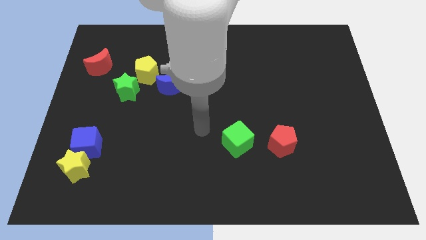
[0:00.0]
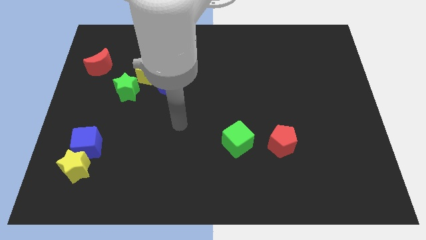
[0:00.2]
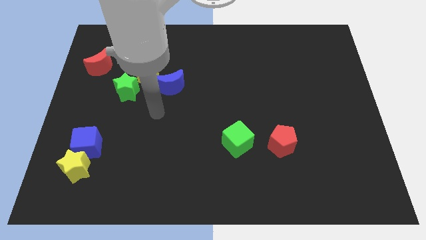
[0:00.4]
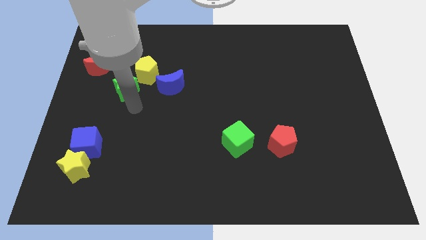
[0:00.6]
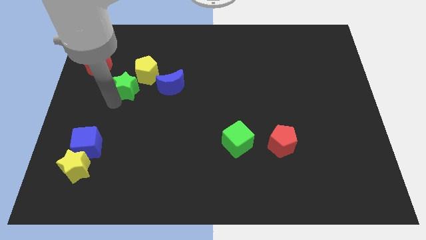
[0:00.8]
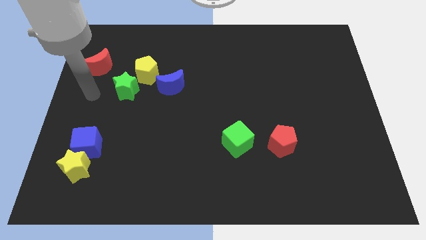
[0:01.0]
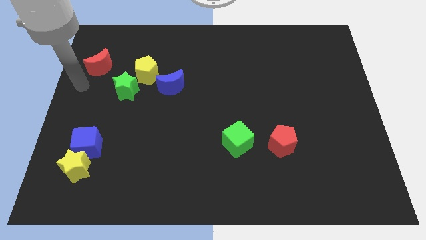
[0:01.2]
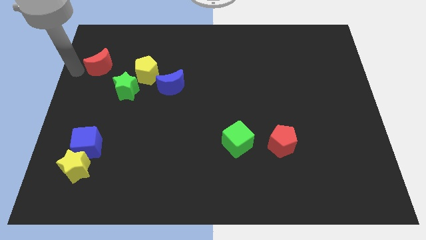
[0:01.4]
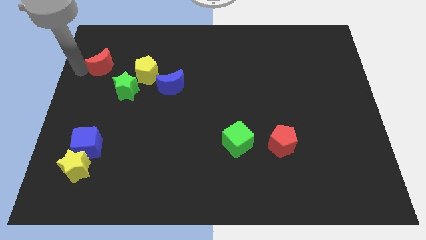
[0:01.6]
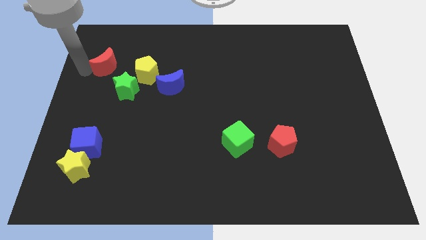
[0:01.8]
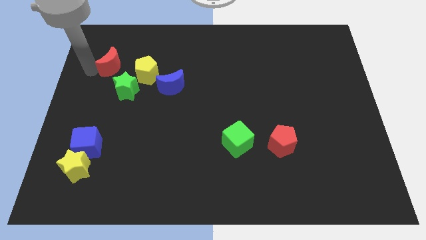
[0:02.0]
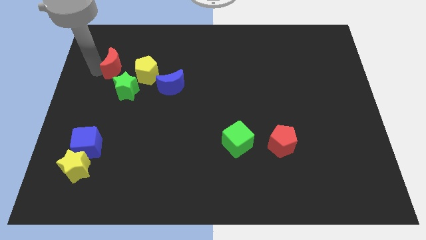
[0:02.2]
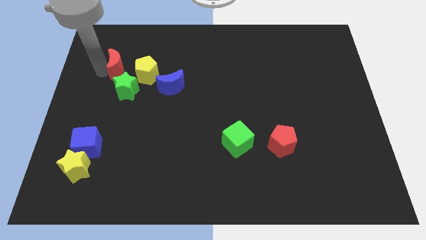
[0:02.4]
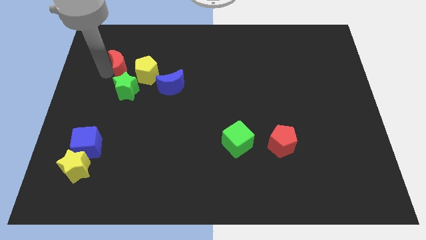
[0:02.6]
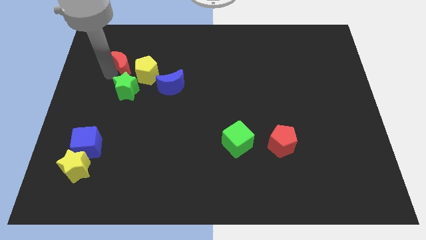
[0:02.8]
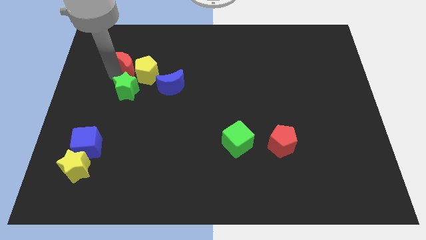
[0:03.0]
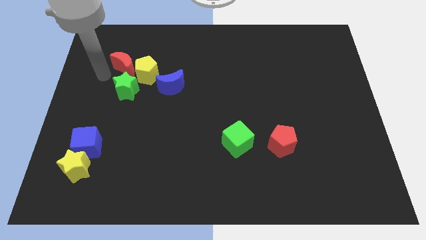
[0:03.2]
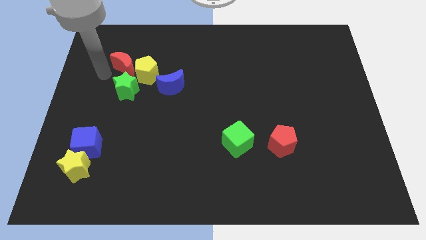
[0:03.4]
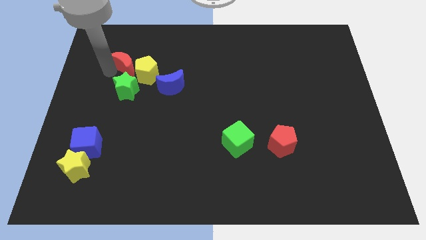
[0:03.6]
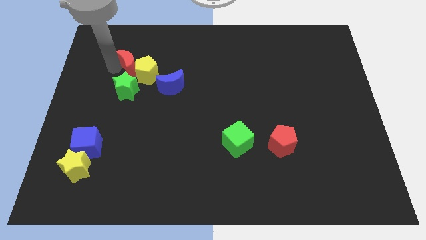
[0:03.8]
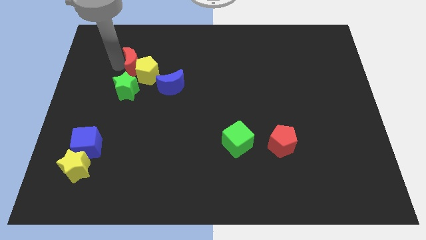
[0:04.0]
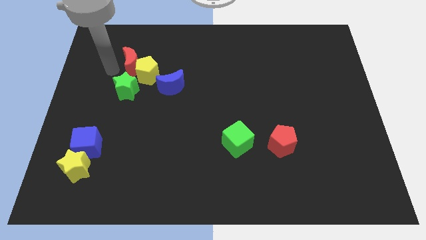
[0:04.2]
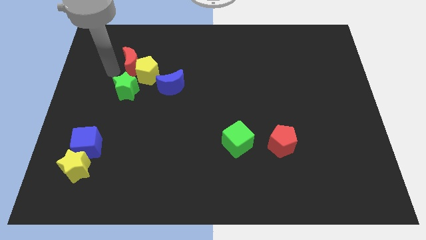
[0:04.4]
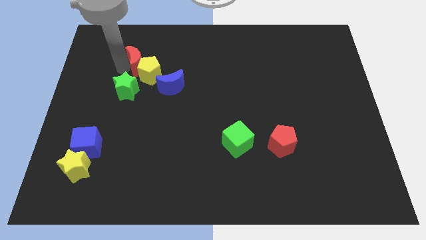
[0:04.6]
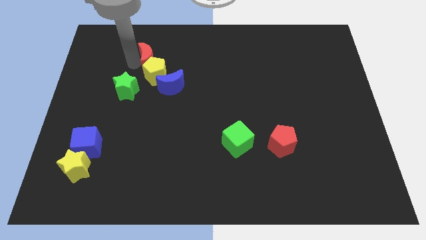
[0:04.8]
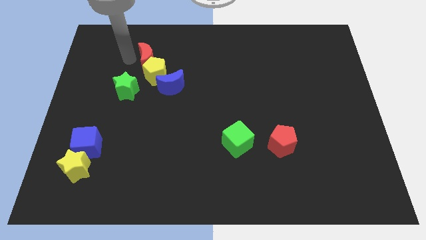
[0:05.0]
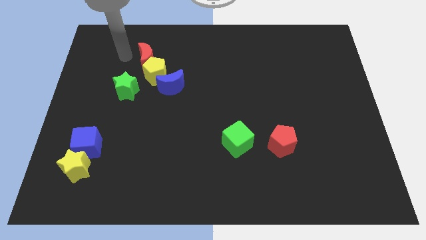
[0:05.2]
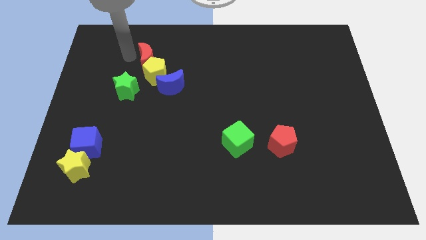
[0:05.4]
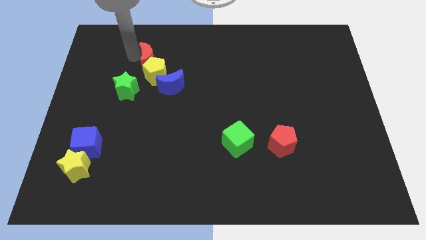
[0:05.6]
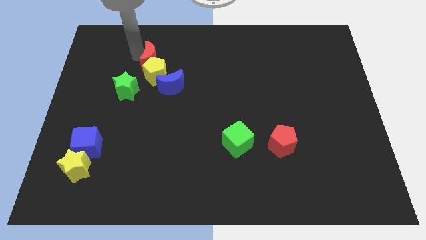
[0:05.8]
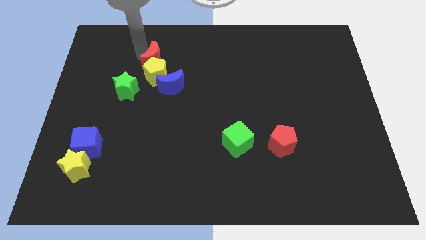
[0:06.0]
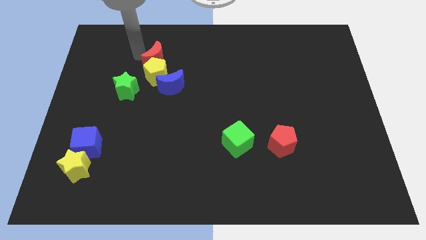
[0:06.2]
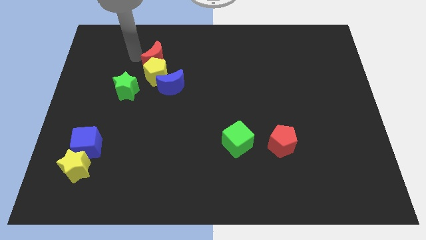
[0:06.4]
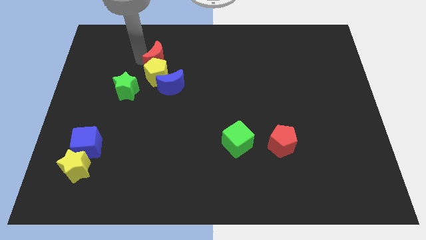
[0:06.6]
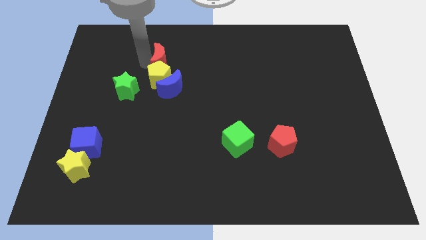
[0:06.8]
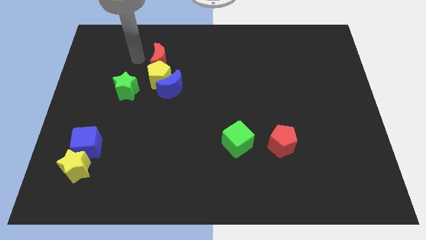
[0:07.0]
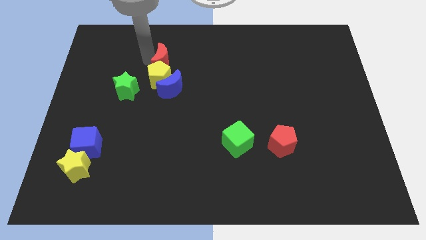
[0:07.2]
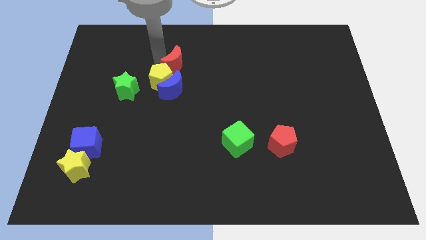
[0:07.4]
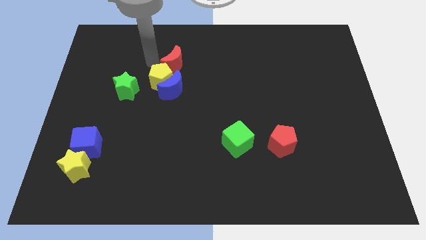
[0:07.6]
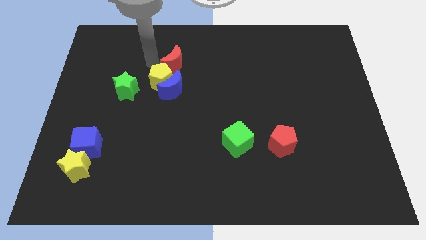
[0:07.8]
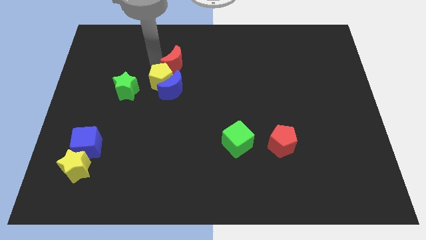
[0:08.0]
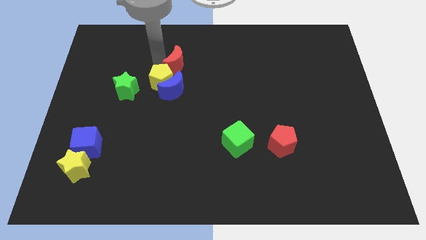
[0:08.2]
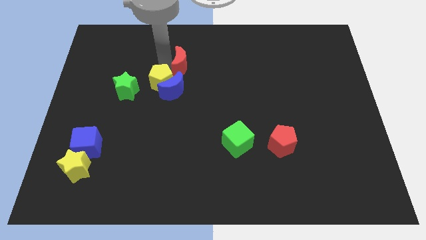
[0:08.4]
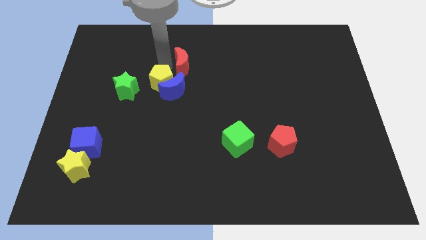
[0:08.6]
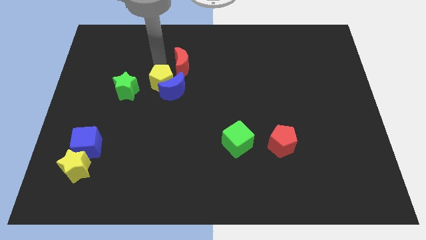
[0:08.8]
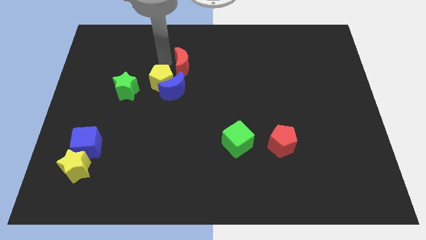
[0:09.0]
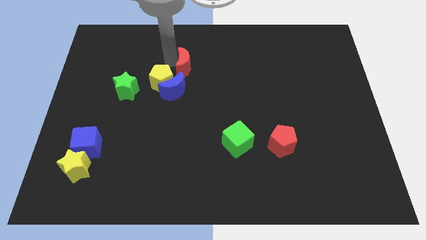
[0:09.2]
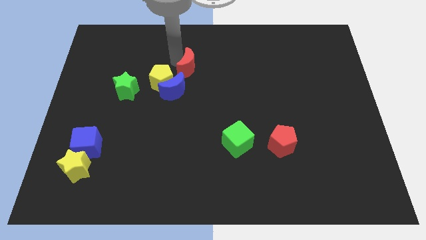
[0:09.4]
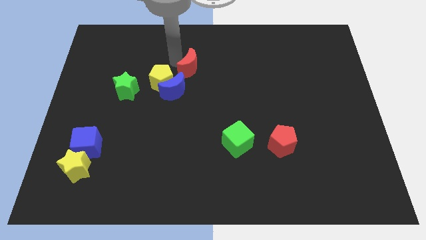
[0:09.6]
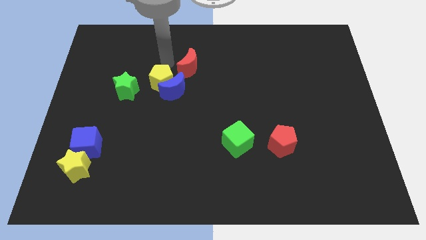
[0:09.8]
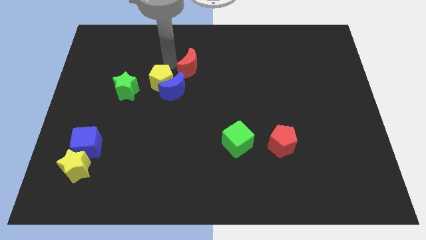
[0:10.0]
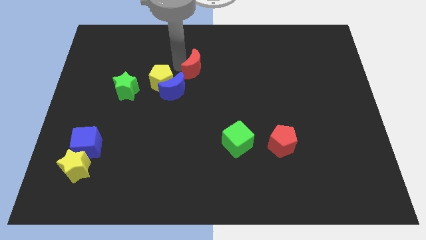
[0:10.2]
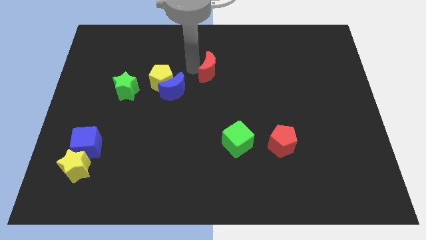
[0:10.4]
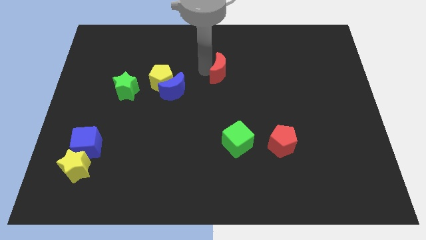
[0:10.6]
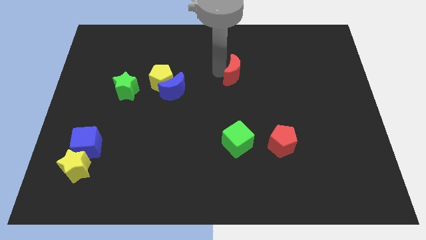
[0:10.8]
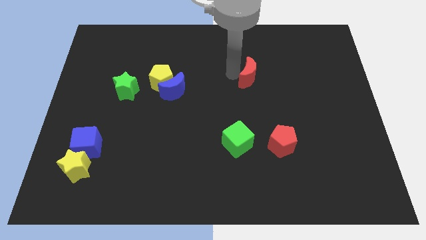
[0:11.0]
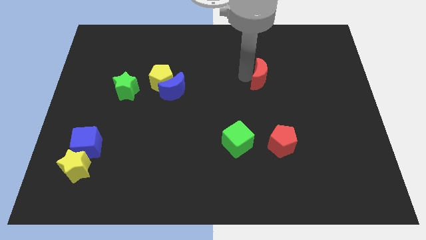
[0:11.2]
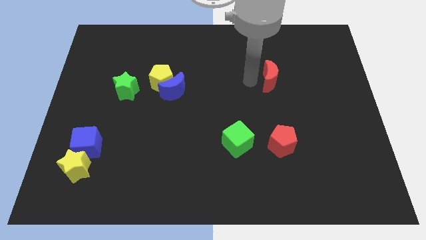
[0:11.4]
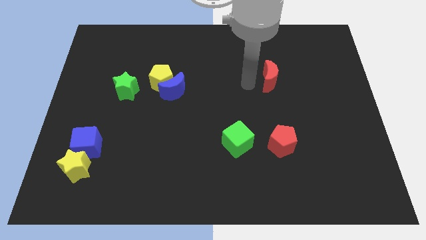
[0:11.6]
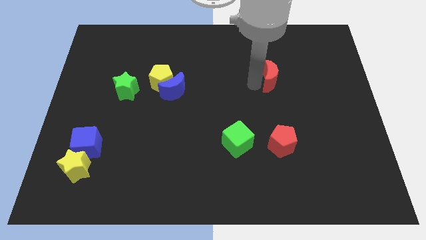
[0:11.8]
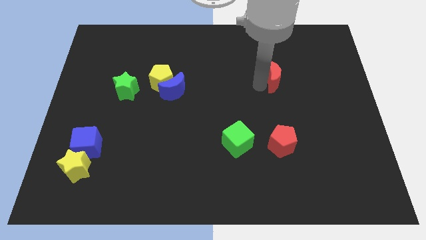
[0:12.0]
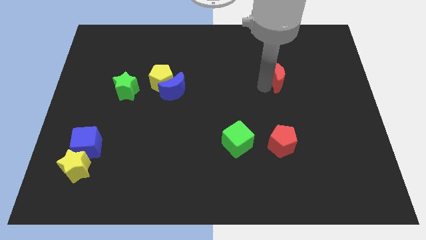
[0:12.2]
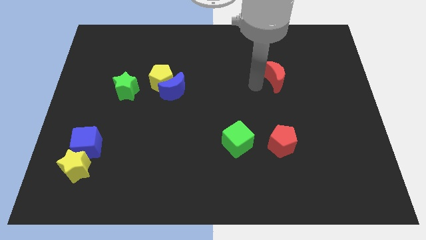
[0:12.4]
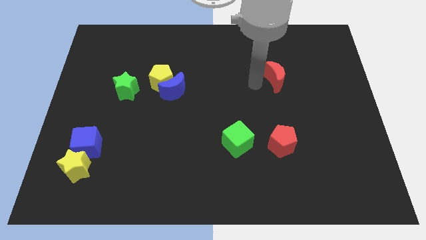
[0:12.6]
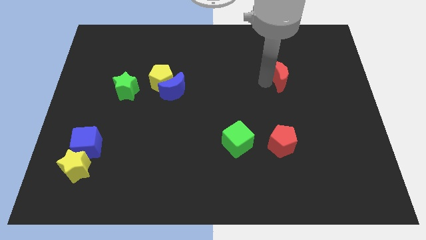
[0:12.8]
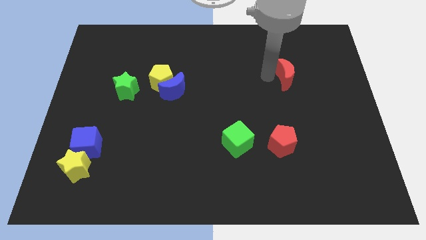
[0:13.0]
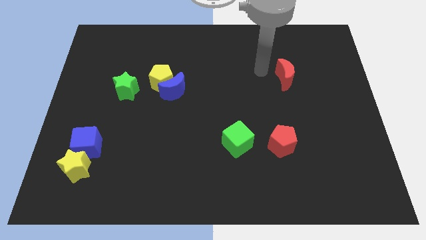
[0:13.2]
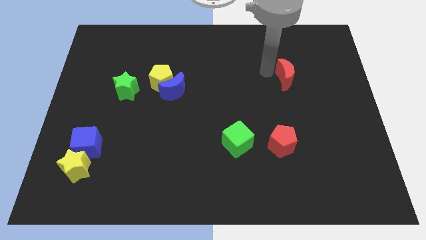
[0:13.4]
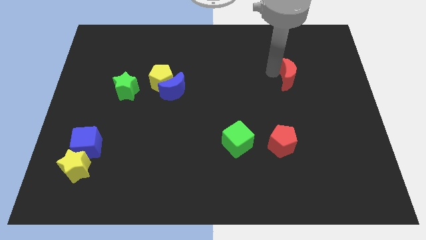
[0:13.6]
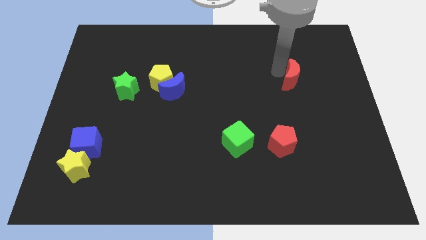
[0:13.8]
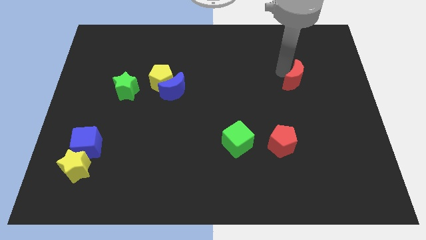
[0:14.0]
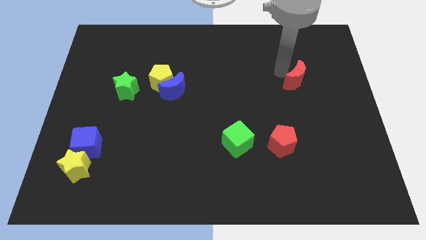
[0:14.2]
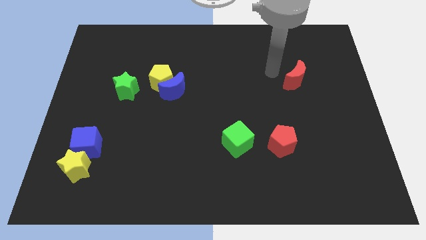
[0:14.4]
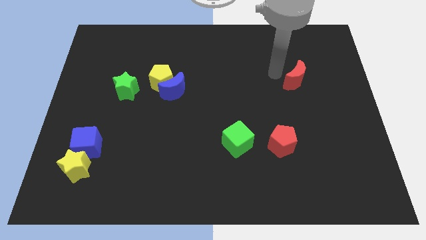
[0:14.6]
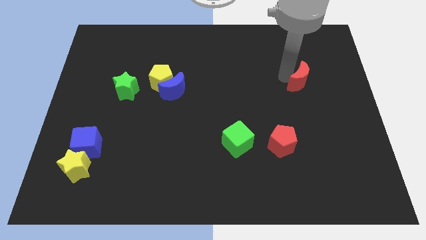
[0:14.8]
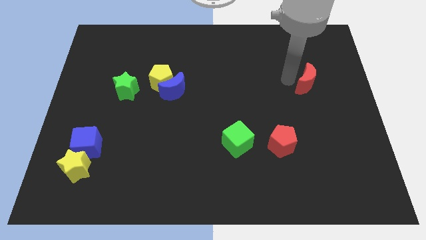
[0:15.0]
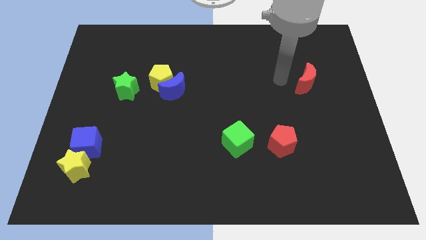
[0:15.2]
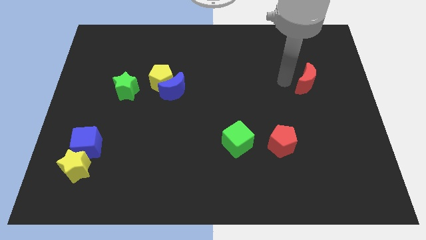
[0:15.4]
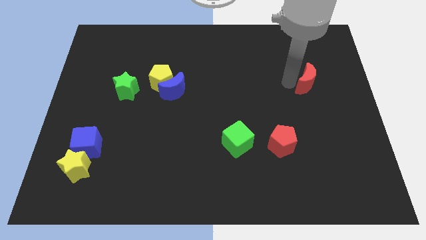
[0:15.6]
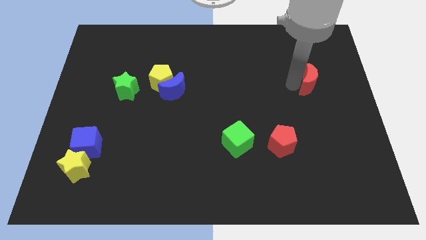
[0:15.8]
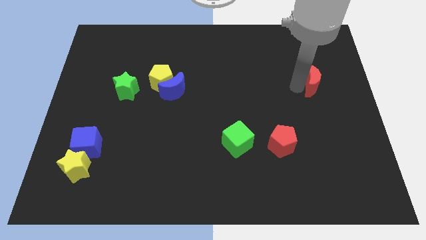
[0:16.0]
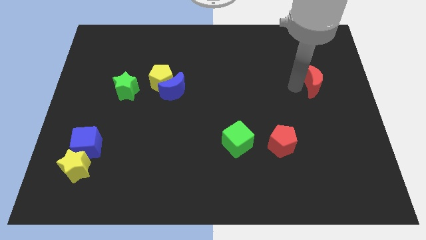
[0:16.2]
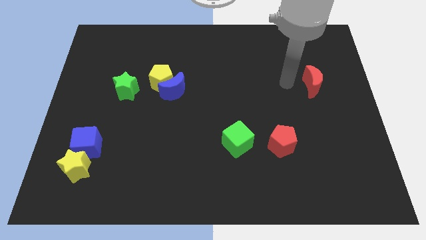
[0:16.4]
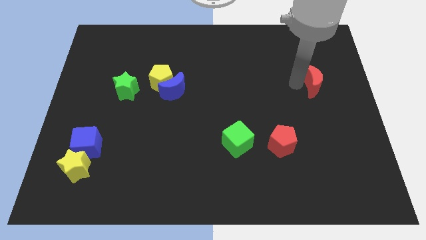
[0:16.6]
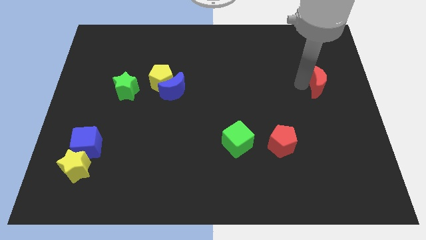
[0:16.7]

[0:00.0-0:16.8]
push the red moon to the right side of the board
